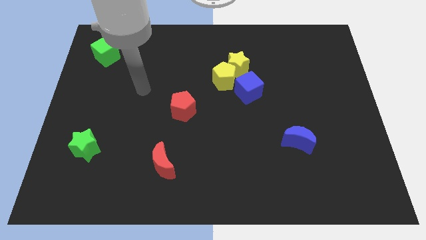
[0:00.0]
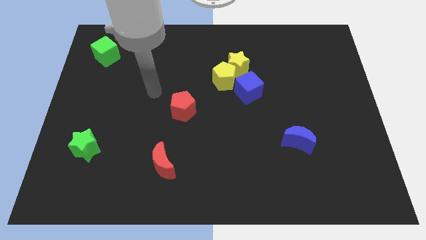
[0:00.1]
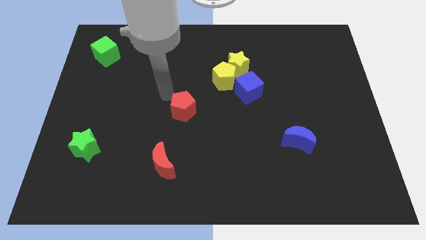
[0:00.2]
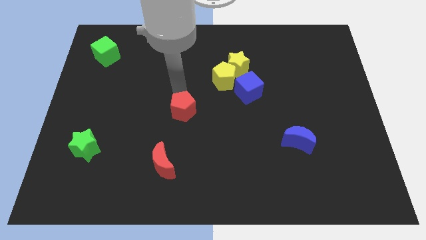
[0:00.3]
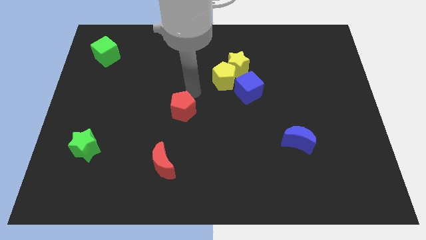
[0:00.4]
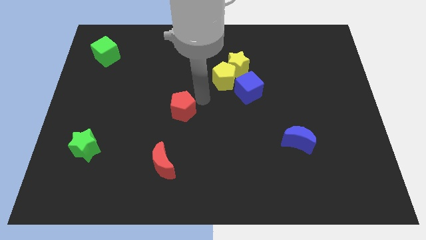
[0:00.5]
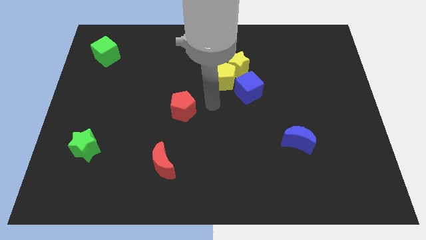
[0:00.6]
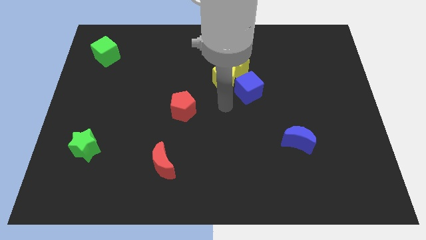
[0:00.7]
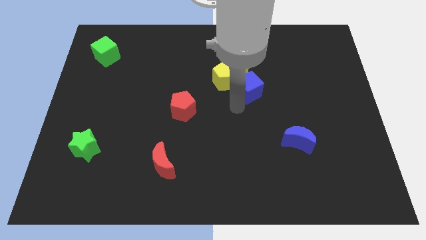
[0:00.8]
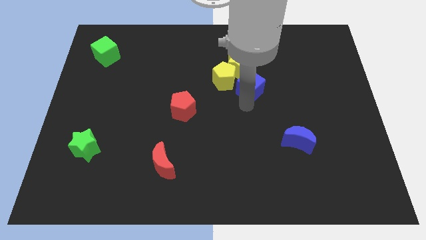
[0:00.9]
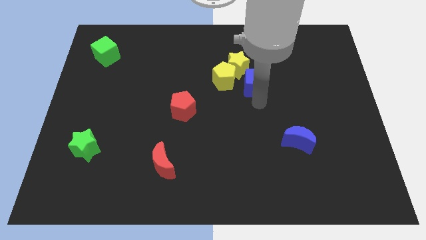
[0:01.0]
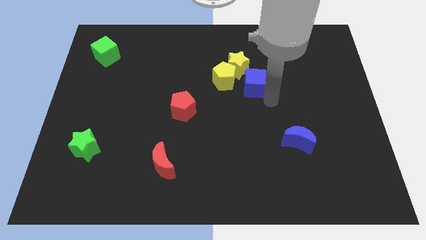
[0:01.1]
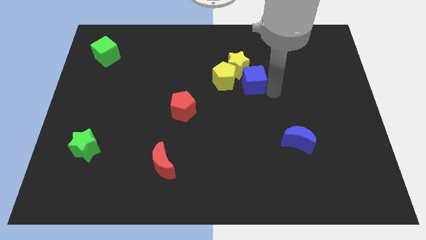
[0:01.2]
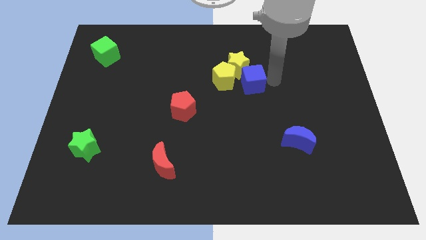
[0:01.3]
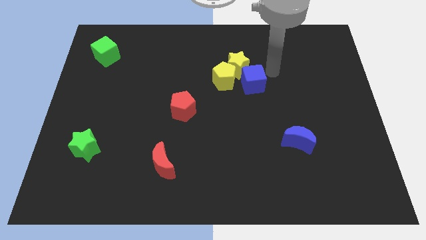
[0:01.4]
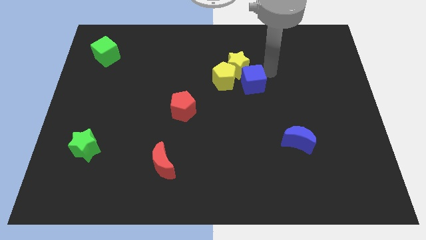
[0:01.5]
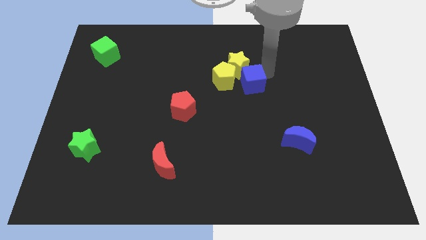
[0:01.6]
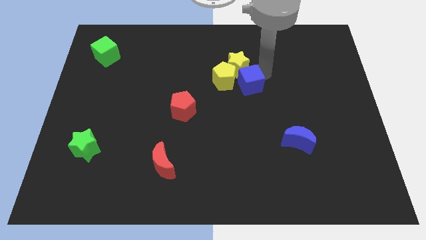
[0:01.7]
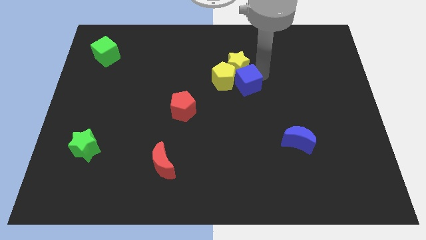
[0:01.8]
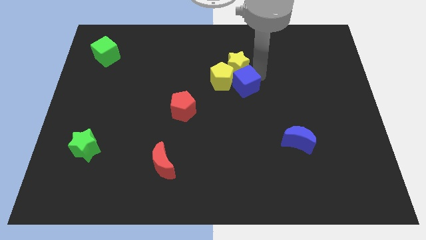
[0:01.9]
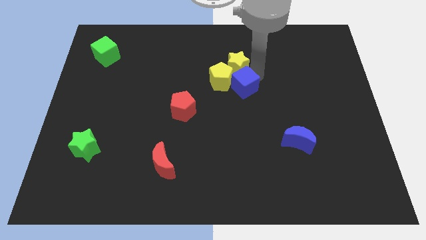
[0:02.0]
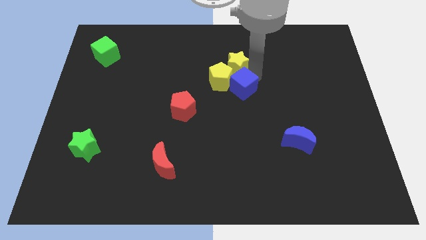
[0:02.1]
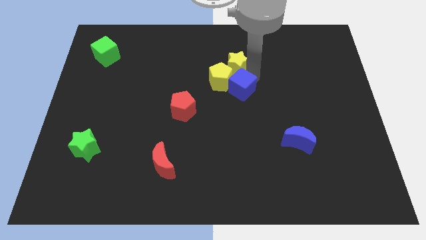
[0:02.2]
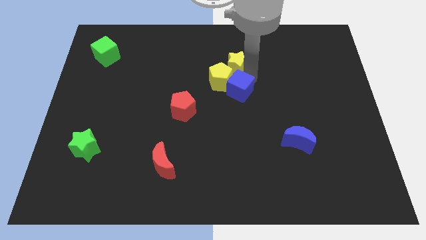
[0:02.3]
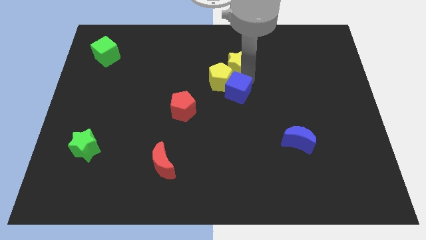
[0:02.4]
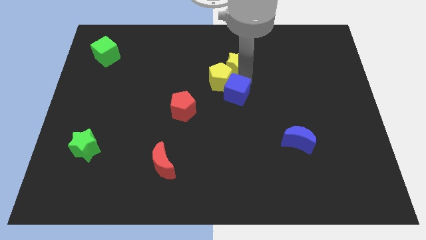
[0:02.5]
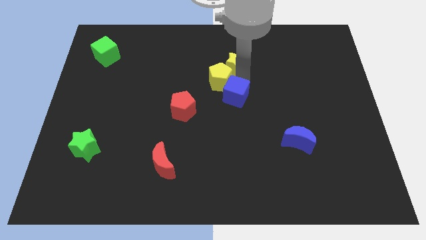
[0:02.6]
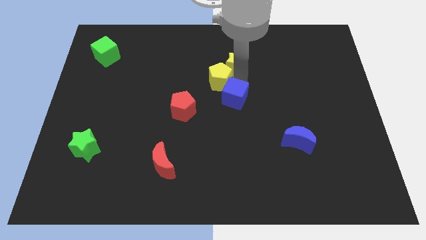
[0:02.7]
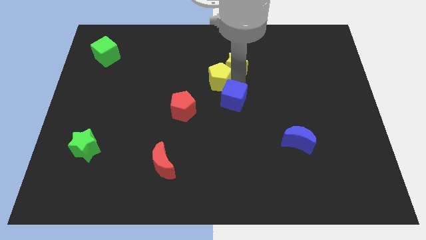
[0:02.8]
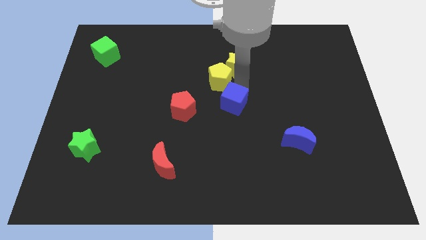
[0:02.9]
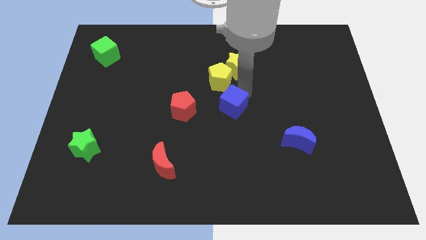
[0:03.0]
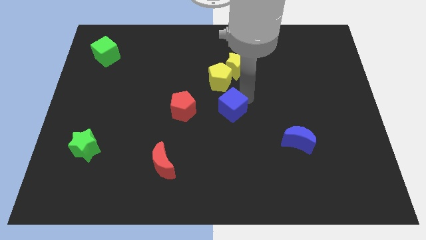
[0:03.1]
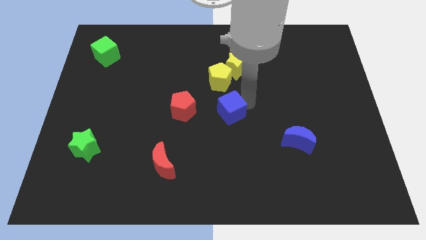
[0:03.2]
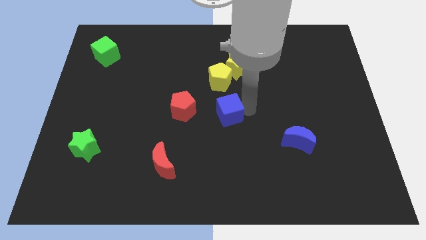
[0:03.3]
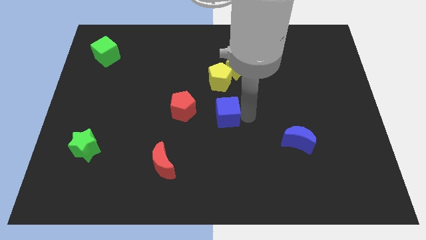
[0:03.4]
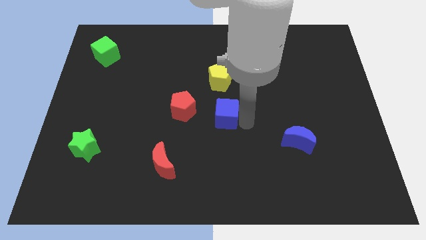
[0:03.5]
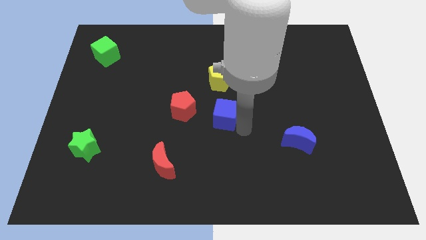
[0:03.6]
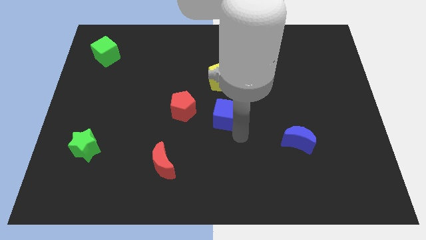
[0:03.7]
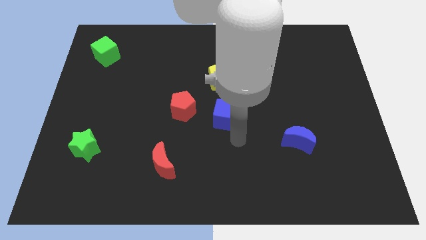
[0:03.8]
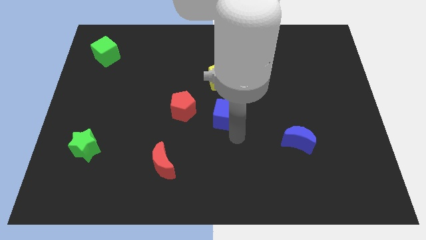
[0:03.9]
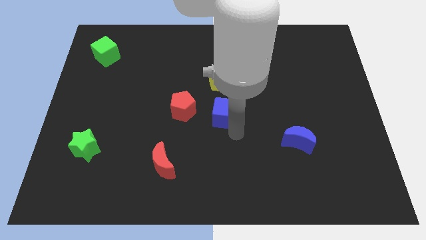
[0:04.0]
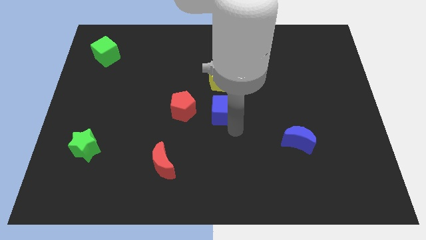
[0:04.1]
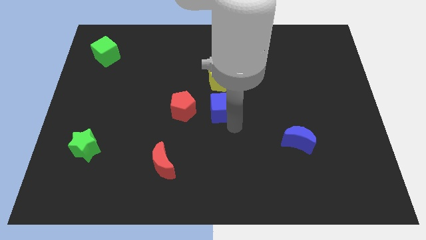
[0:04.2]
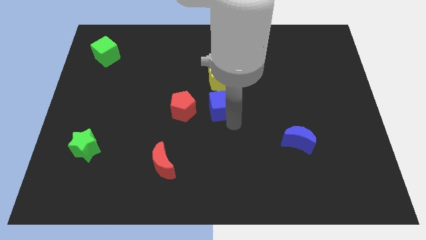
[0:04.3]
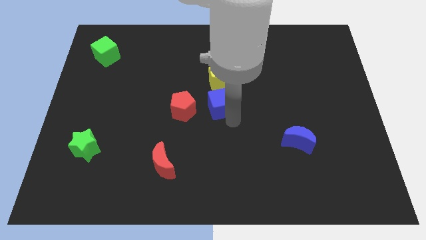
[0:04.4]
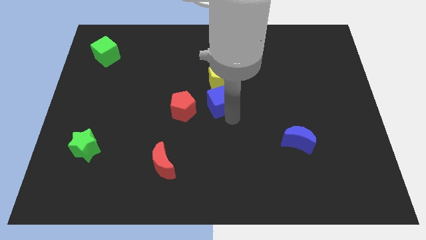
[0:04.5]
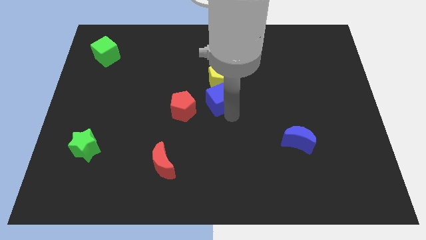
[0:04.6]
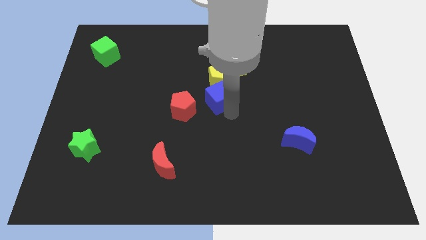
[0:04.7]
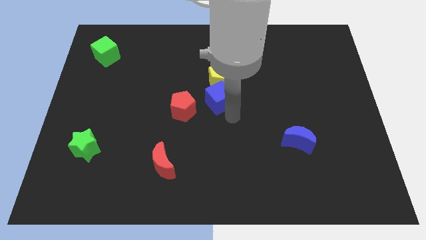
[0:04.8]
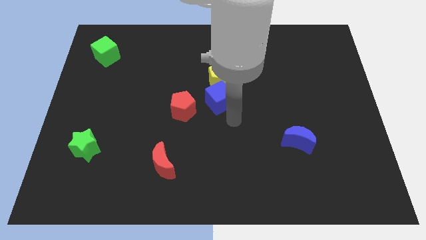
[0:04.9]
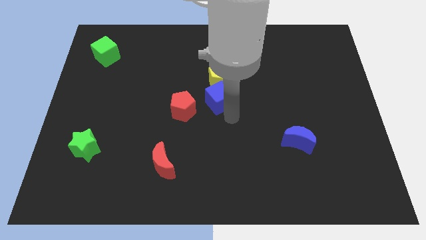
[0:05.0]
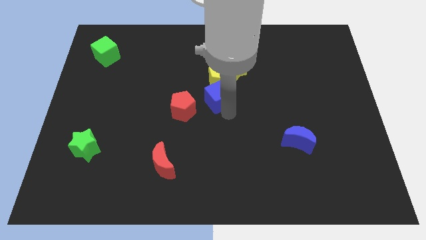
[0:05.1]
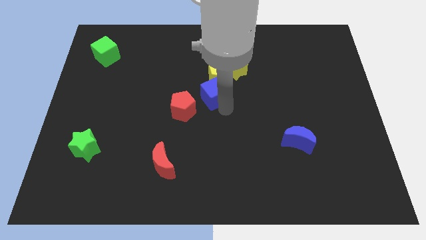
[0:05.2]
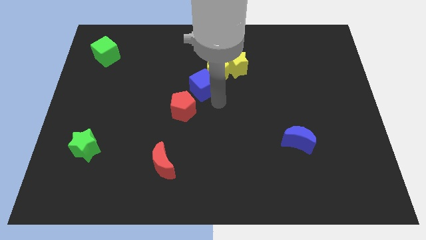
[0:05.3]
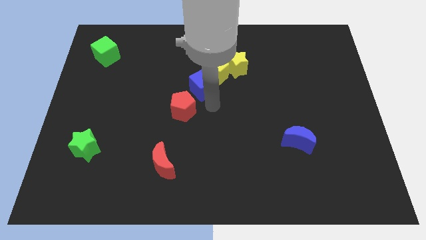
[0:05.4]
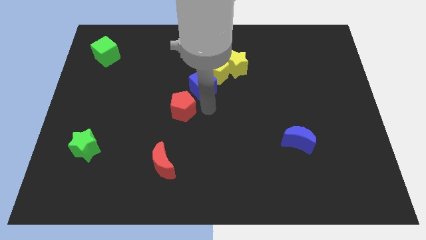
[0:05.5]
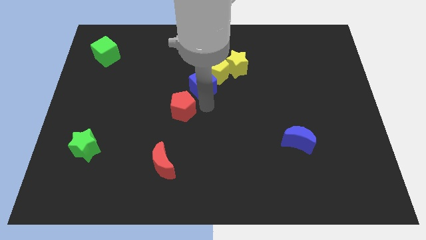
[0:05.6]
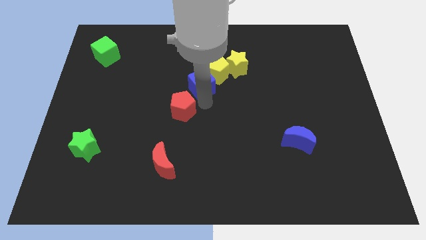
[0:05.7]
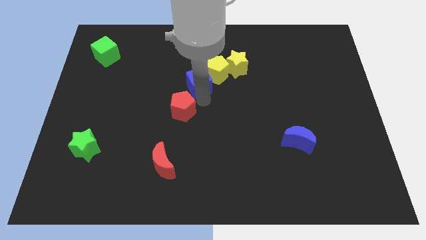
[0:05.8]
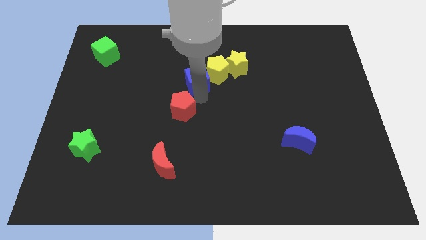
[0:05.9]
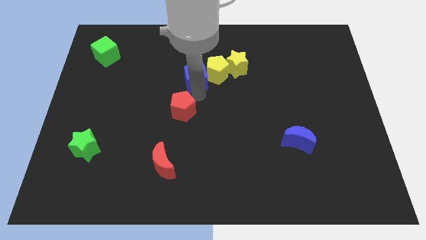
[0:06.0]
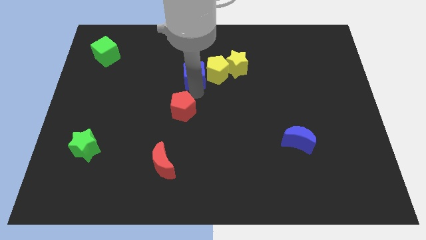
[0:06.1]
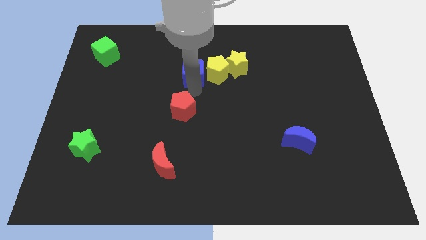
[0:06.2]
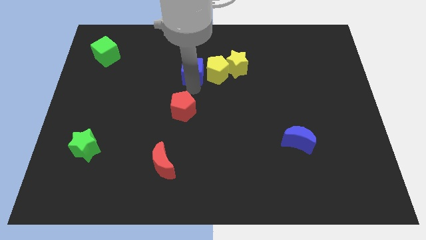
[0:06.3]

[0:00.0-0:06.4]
move the blue cube diagonally up and to the left of the yellow pentagon
